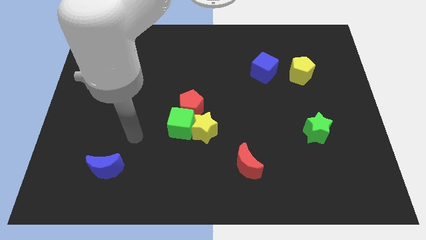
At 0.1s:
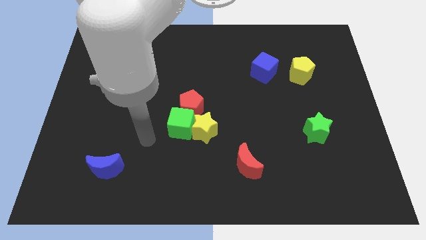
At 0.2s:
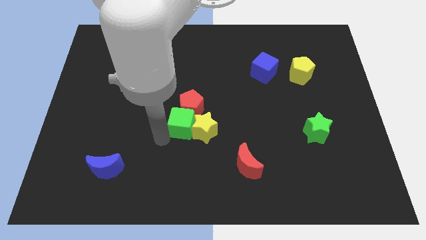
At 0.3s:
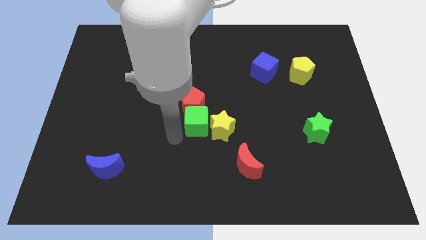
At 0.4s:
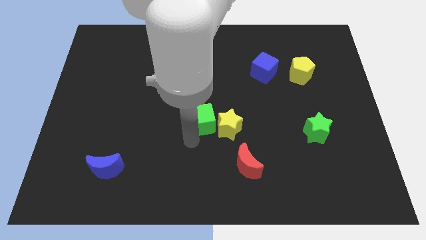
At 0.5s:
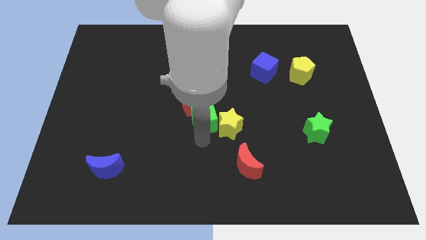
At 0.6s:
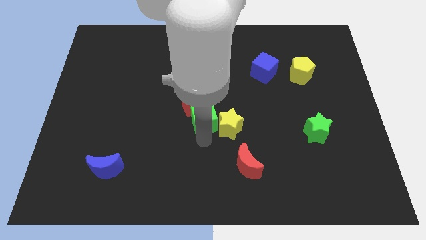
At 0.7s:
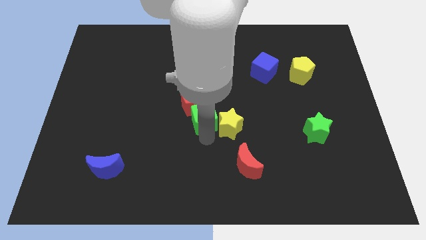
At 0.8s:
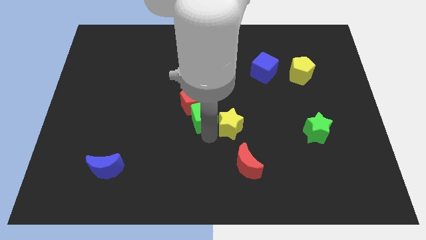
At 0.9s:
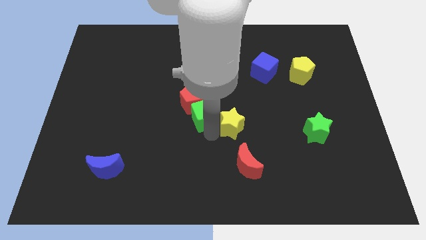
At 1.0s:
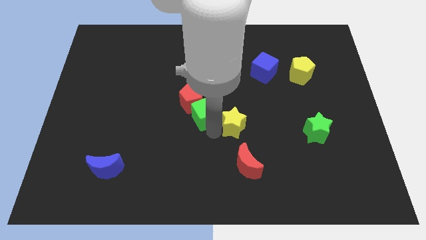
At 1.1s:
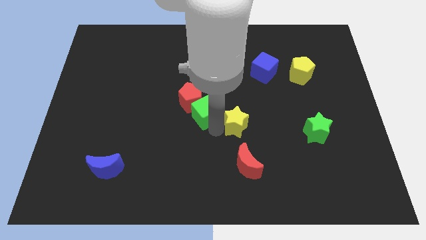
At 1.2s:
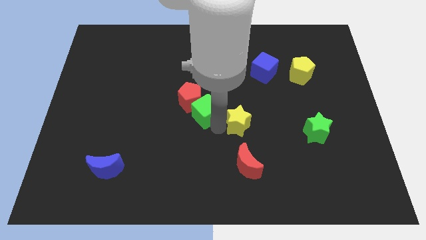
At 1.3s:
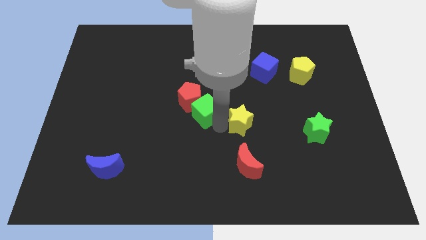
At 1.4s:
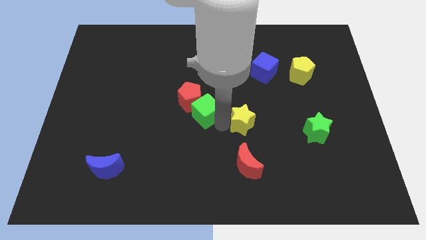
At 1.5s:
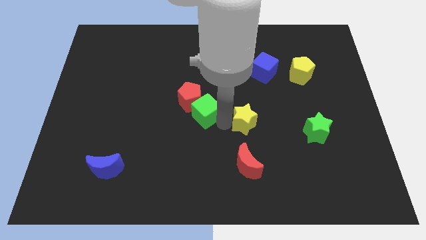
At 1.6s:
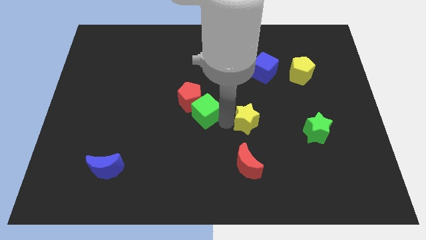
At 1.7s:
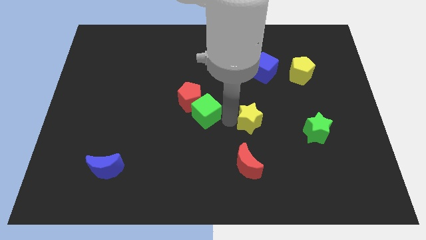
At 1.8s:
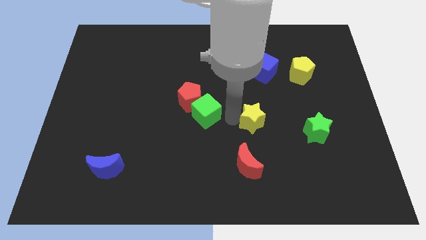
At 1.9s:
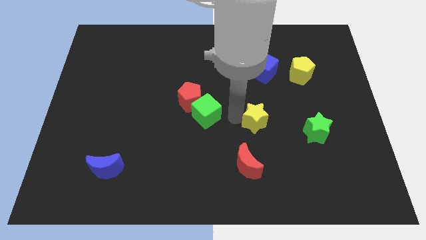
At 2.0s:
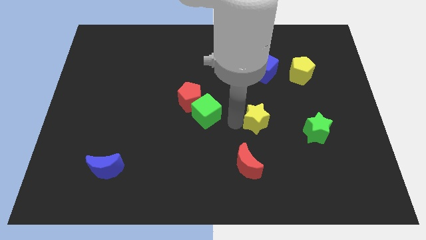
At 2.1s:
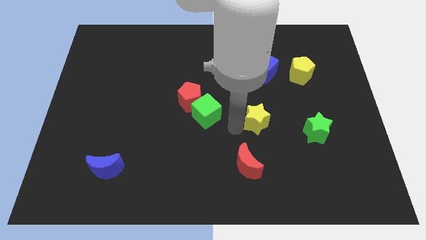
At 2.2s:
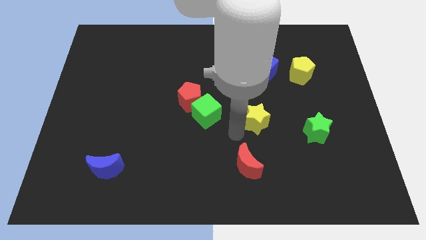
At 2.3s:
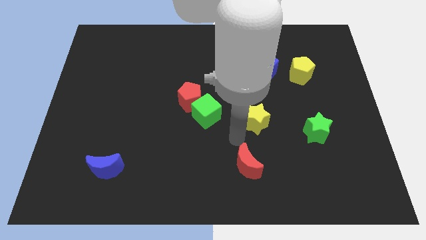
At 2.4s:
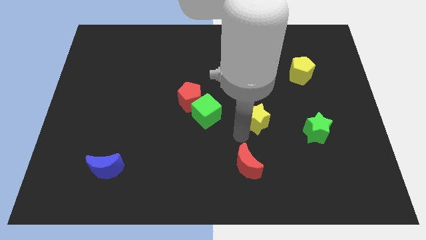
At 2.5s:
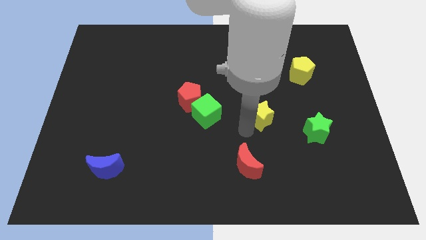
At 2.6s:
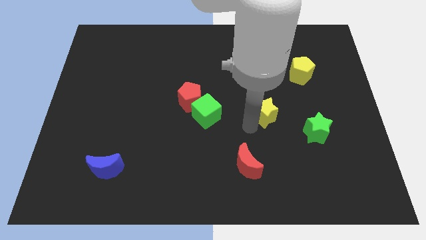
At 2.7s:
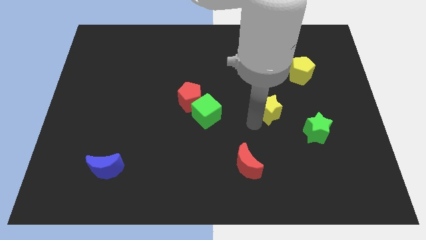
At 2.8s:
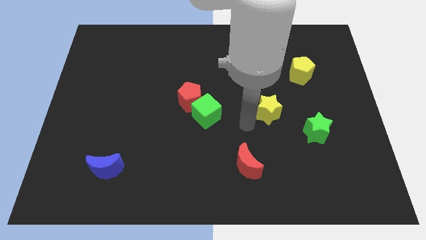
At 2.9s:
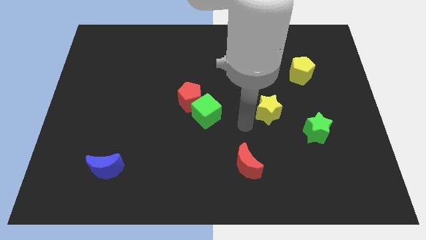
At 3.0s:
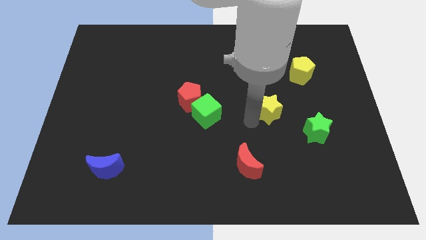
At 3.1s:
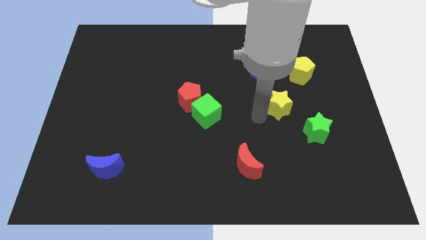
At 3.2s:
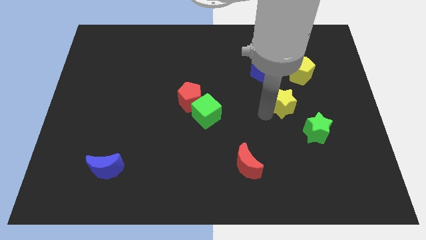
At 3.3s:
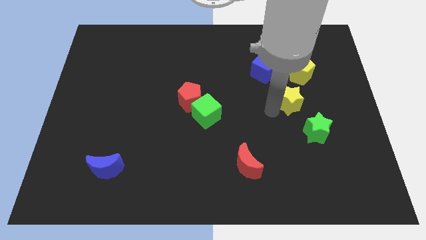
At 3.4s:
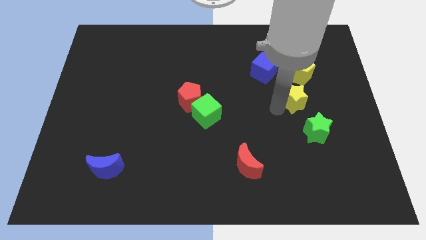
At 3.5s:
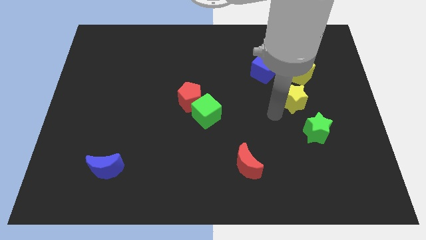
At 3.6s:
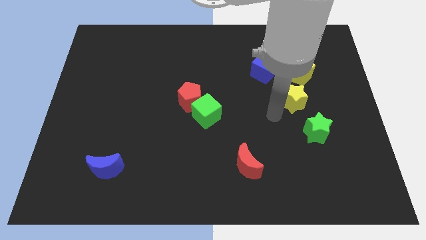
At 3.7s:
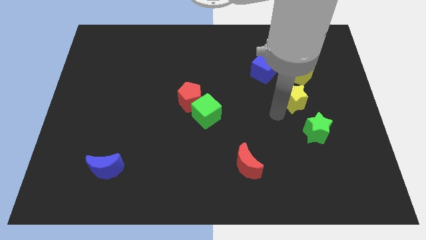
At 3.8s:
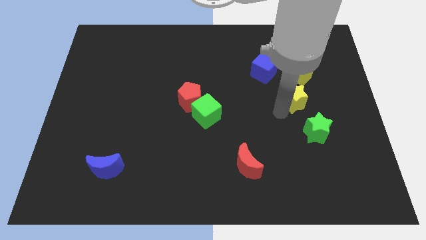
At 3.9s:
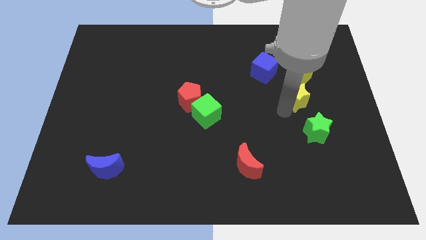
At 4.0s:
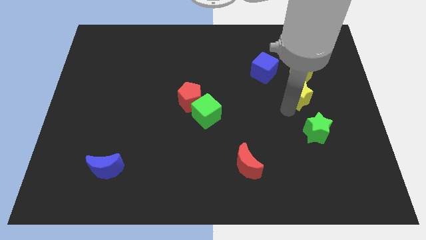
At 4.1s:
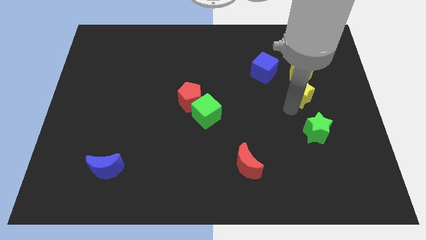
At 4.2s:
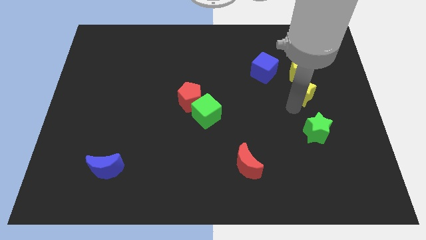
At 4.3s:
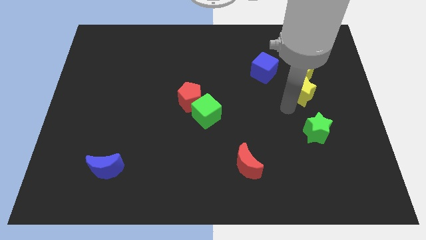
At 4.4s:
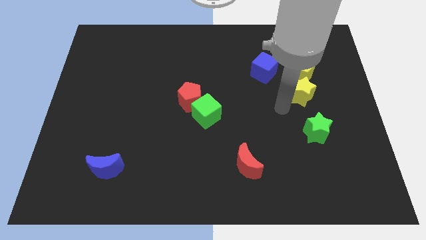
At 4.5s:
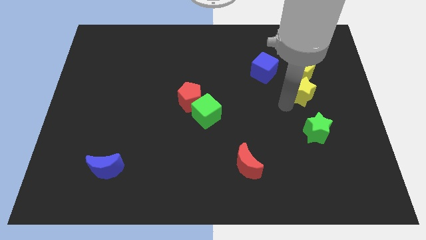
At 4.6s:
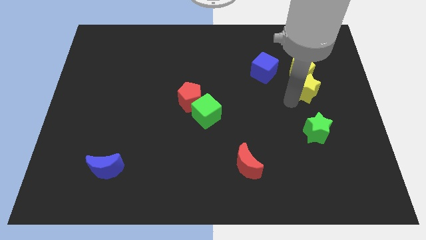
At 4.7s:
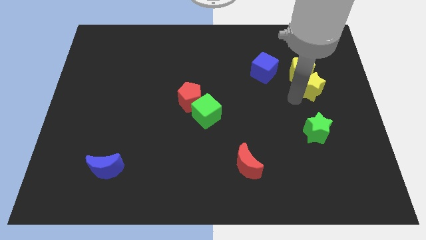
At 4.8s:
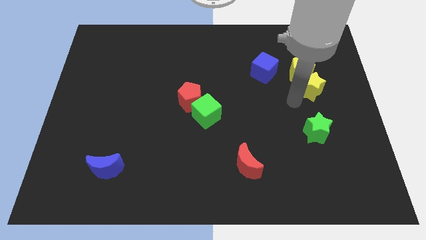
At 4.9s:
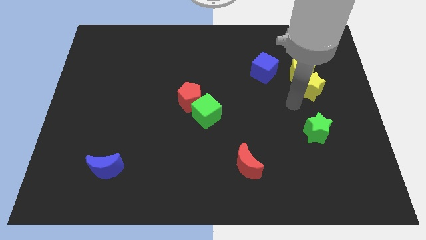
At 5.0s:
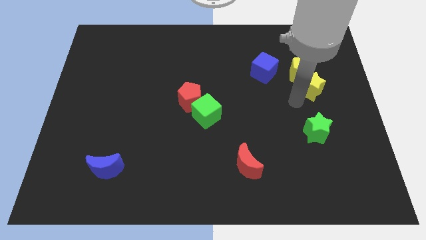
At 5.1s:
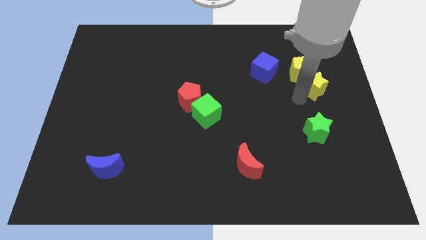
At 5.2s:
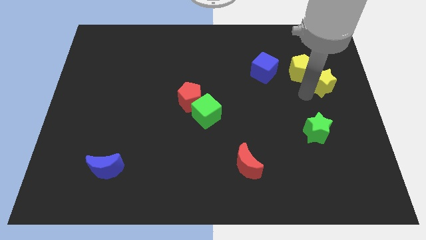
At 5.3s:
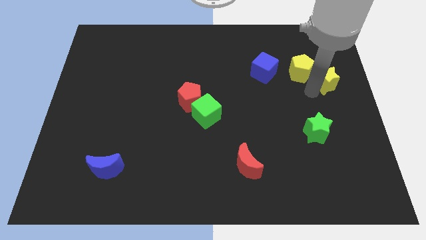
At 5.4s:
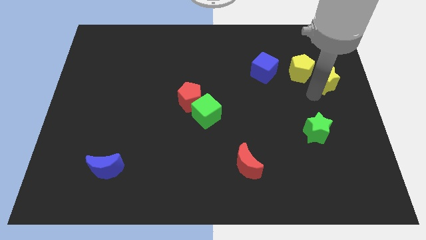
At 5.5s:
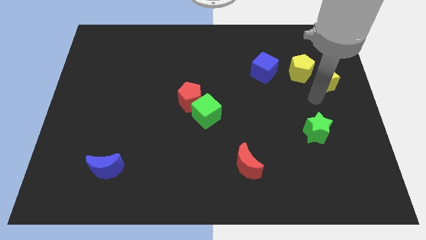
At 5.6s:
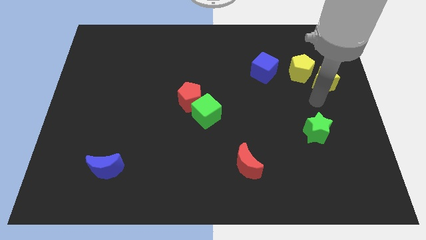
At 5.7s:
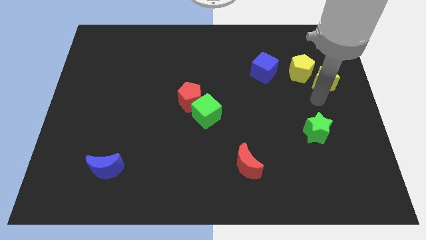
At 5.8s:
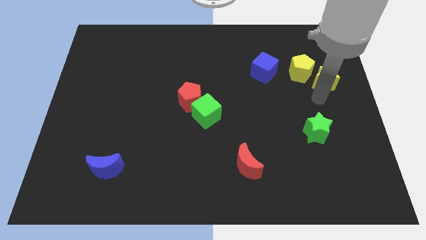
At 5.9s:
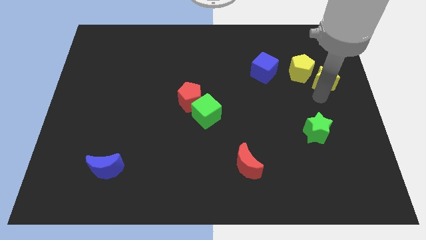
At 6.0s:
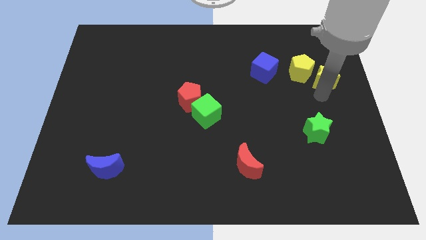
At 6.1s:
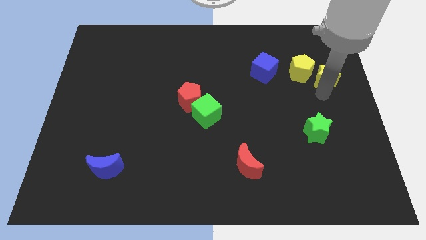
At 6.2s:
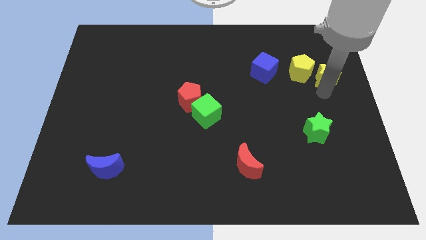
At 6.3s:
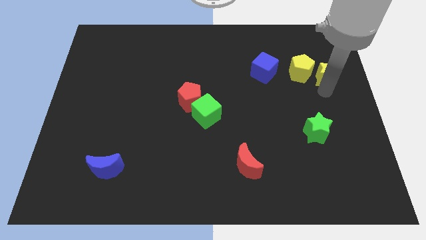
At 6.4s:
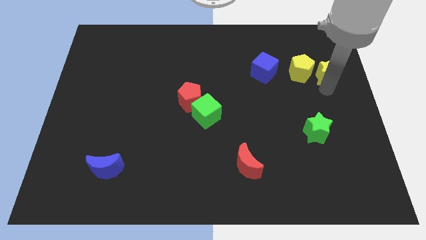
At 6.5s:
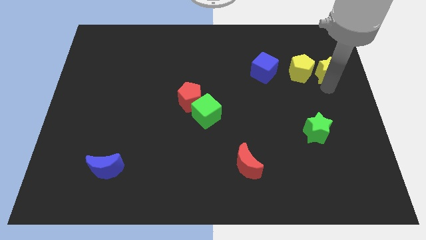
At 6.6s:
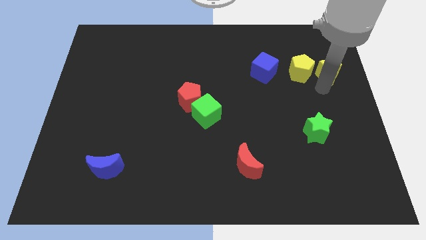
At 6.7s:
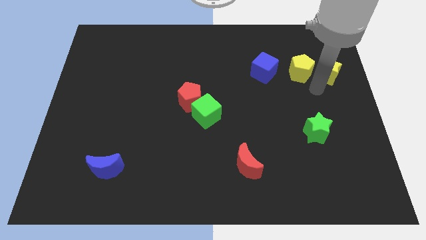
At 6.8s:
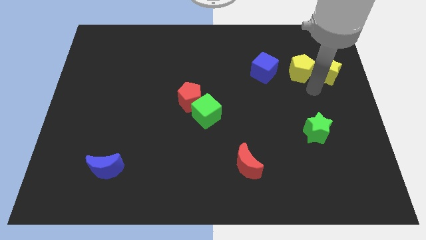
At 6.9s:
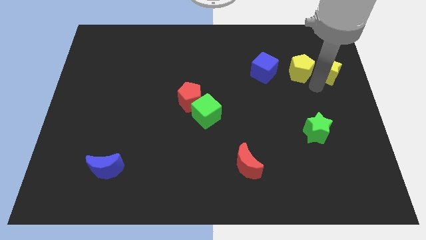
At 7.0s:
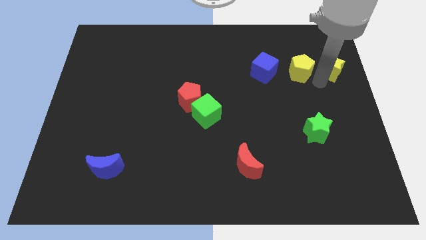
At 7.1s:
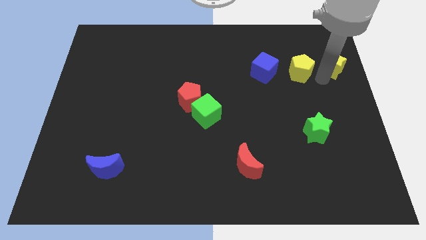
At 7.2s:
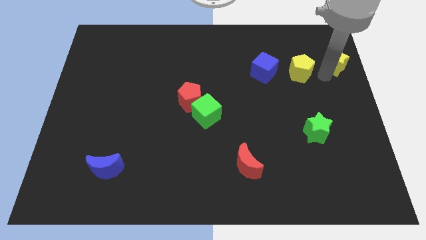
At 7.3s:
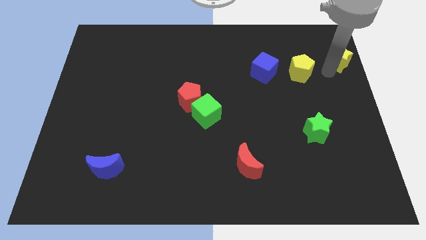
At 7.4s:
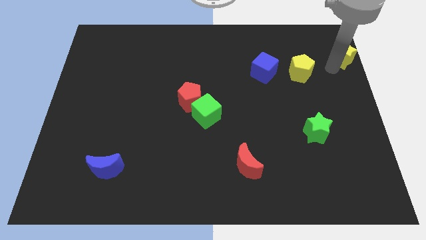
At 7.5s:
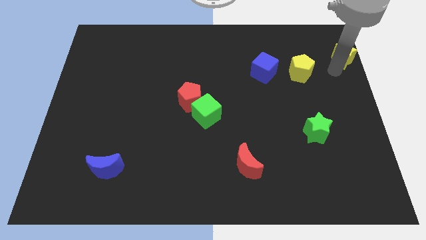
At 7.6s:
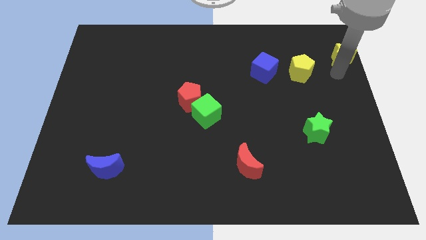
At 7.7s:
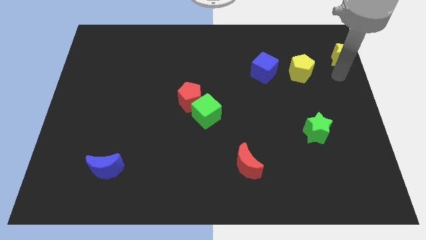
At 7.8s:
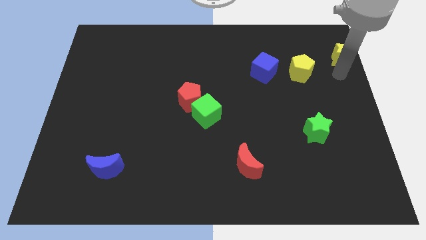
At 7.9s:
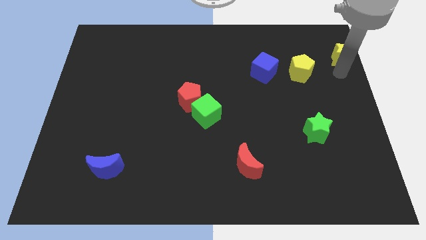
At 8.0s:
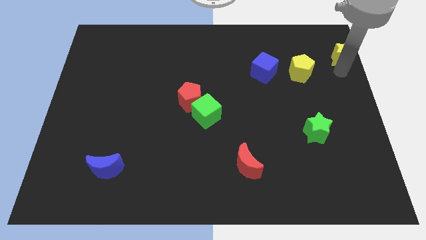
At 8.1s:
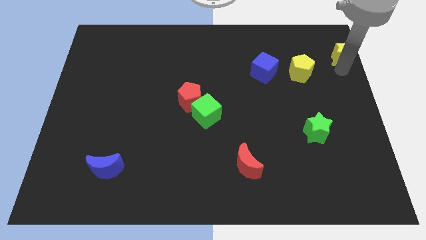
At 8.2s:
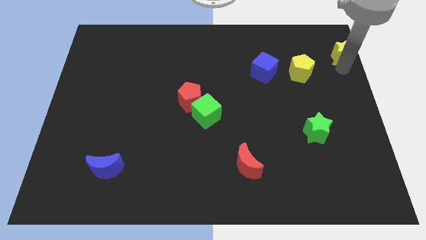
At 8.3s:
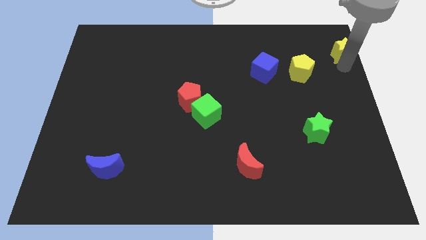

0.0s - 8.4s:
push the yellow star to the top right
